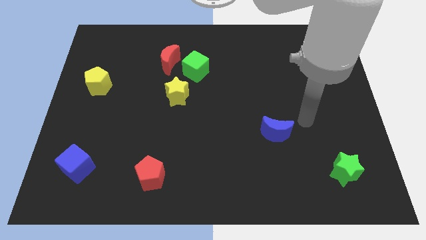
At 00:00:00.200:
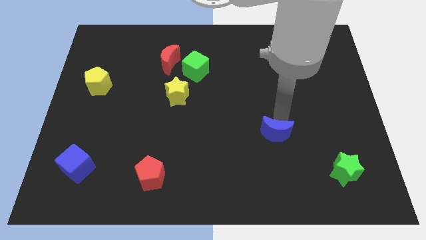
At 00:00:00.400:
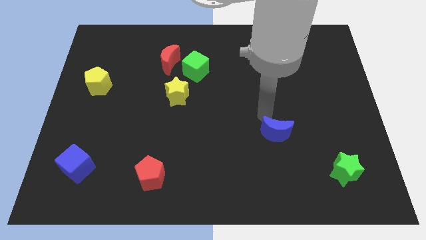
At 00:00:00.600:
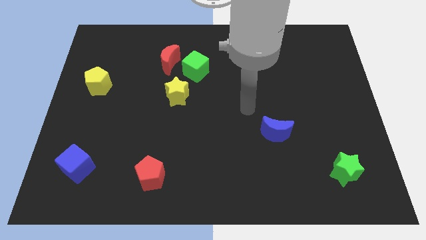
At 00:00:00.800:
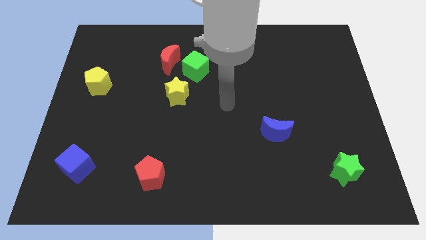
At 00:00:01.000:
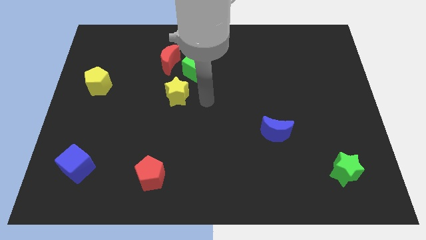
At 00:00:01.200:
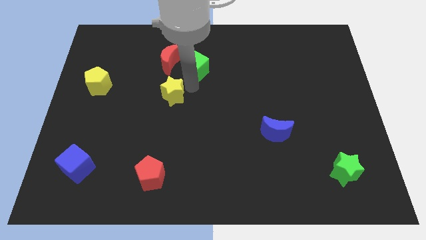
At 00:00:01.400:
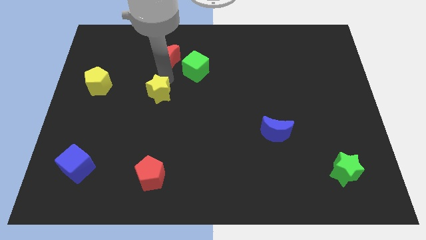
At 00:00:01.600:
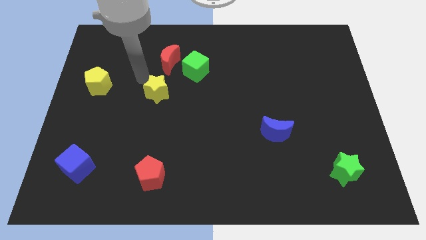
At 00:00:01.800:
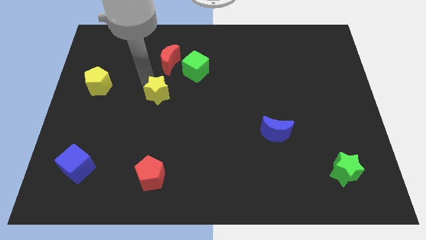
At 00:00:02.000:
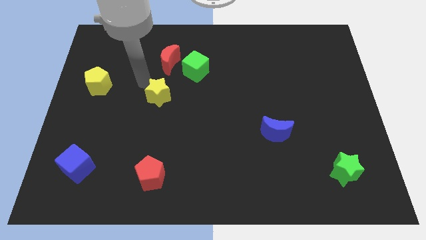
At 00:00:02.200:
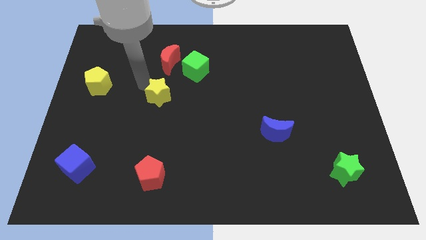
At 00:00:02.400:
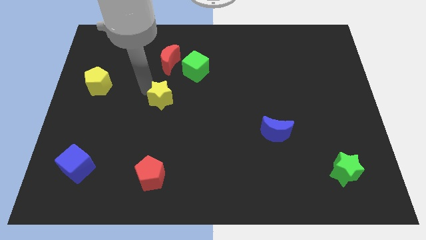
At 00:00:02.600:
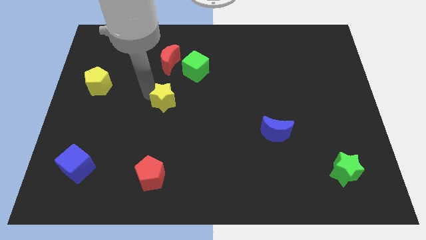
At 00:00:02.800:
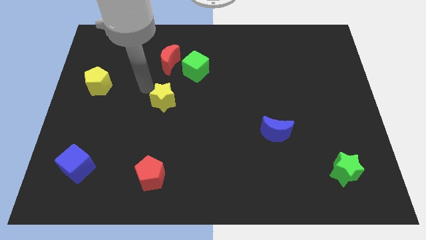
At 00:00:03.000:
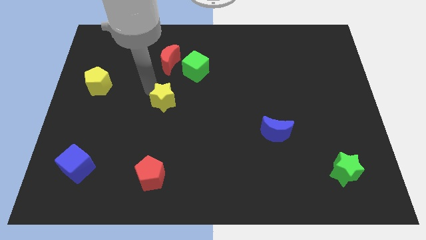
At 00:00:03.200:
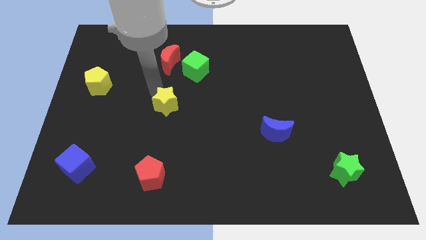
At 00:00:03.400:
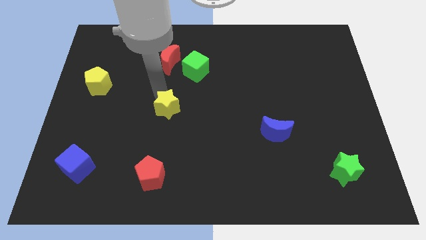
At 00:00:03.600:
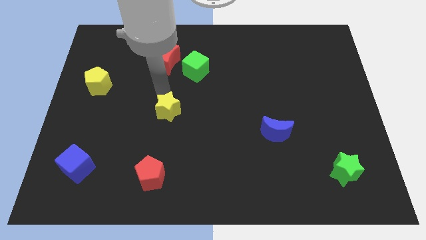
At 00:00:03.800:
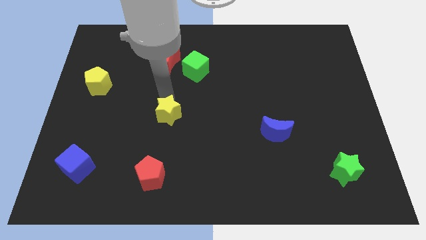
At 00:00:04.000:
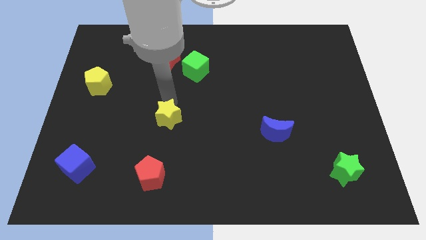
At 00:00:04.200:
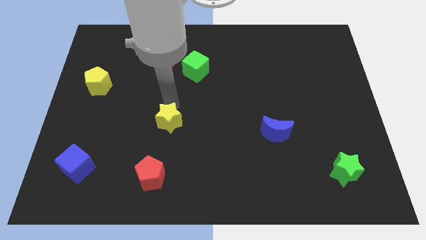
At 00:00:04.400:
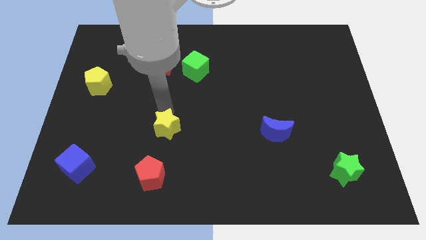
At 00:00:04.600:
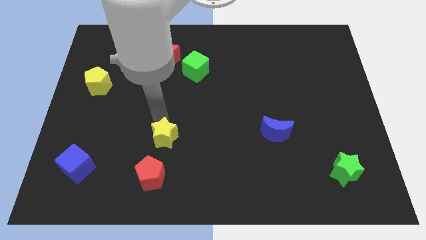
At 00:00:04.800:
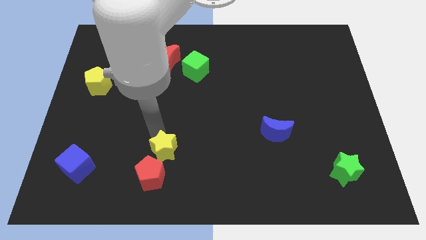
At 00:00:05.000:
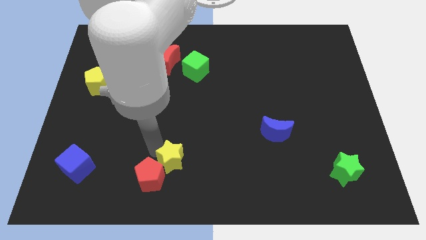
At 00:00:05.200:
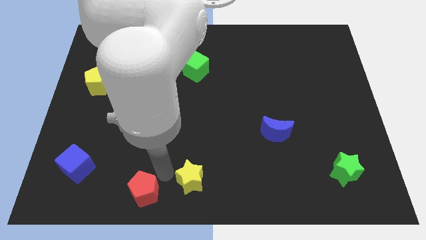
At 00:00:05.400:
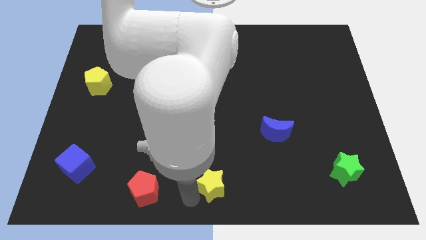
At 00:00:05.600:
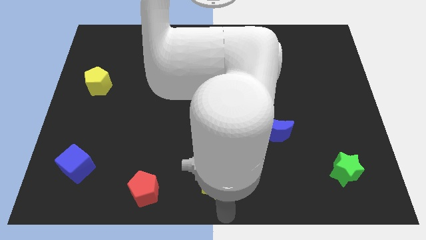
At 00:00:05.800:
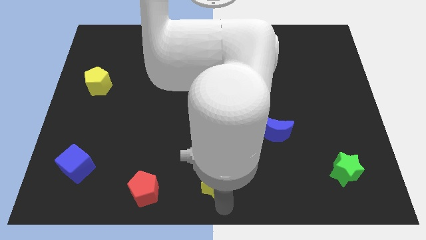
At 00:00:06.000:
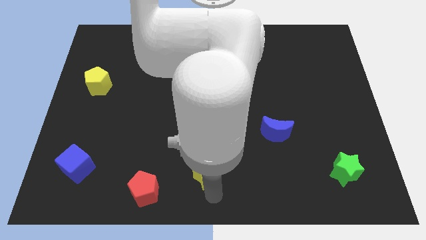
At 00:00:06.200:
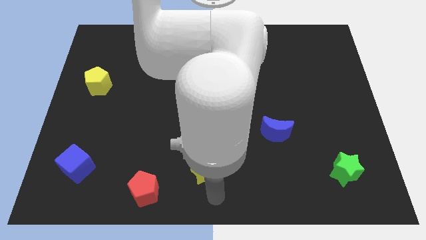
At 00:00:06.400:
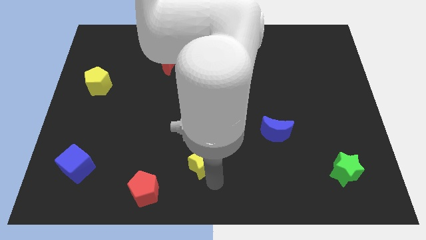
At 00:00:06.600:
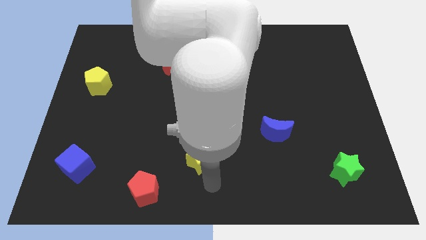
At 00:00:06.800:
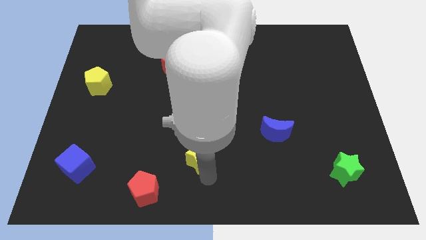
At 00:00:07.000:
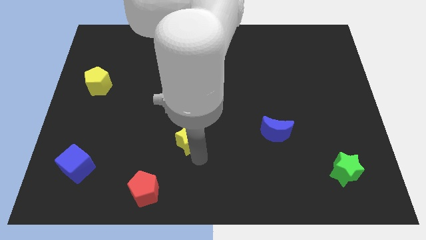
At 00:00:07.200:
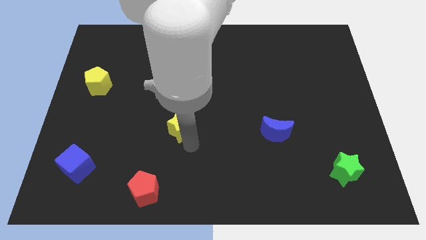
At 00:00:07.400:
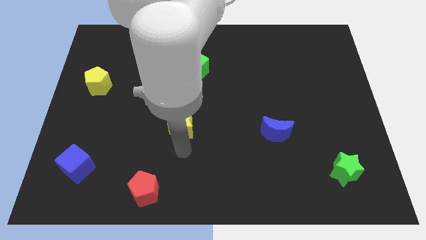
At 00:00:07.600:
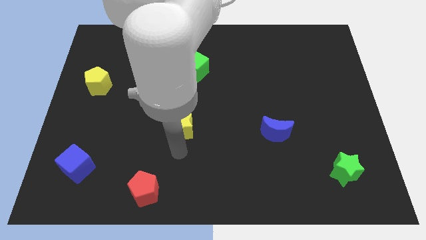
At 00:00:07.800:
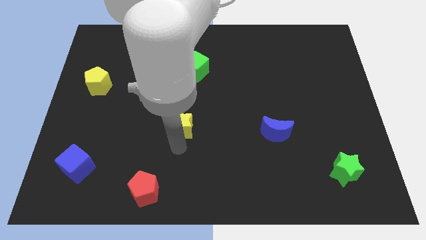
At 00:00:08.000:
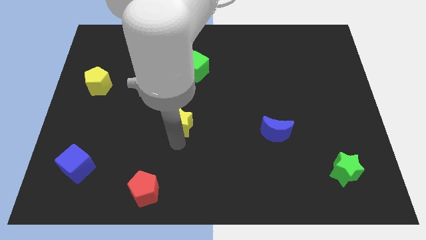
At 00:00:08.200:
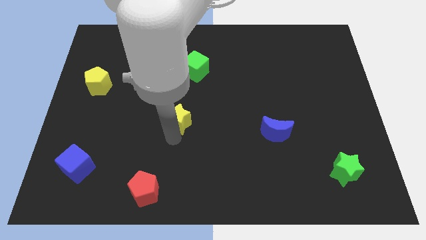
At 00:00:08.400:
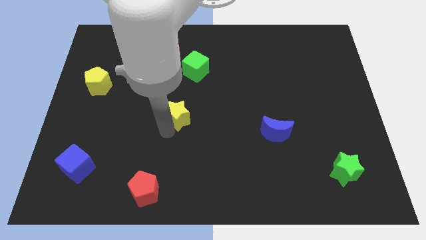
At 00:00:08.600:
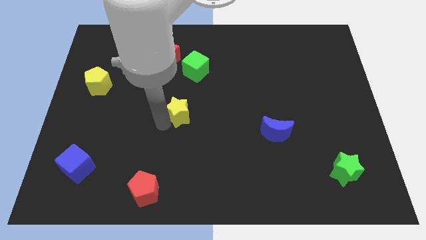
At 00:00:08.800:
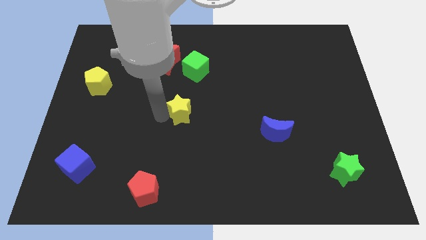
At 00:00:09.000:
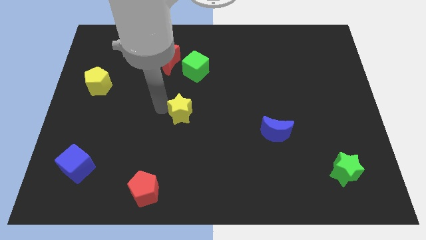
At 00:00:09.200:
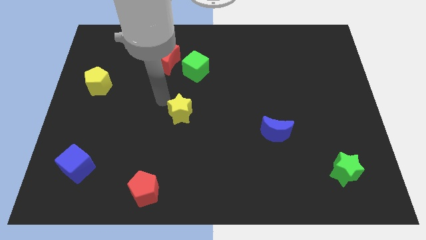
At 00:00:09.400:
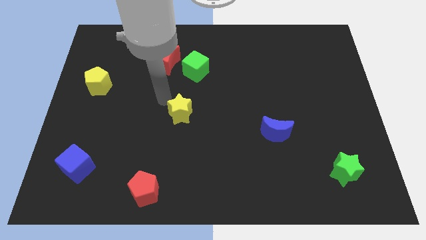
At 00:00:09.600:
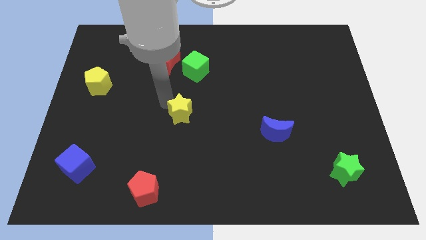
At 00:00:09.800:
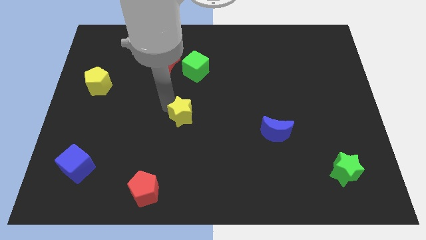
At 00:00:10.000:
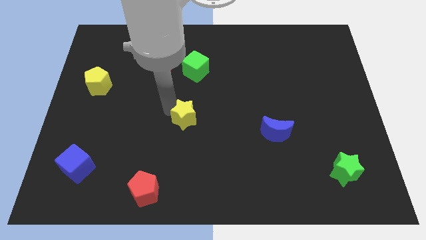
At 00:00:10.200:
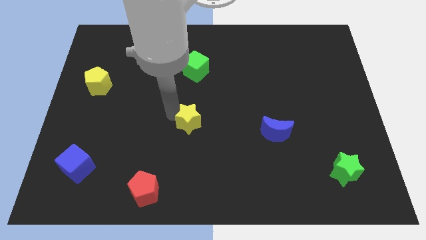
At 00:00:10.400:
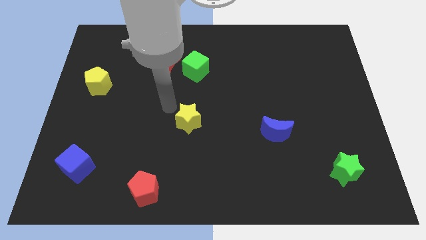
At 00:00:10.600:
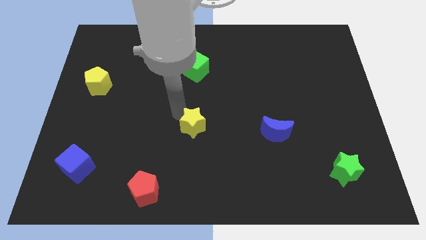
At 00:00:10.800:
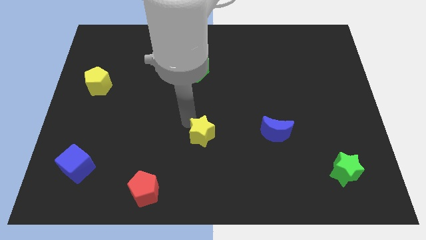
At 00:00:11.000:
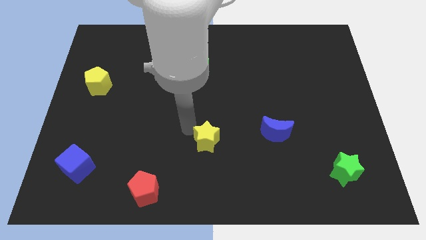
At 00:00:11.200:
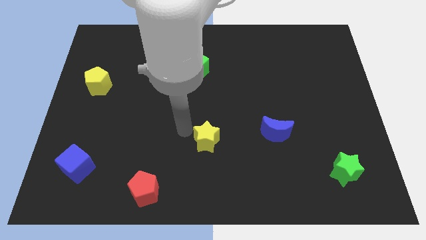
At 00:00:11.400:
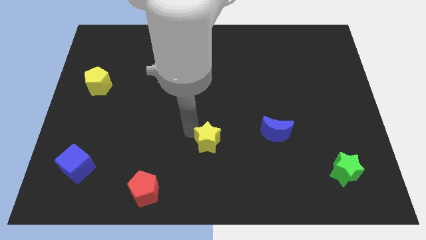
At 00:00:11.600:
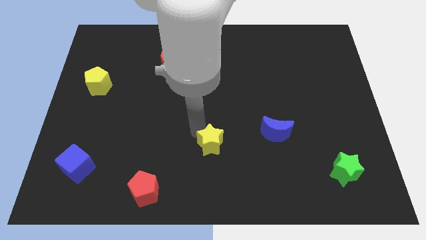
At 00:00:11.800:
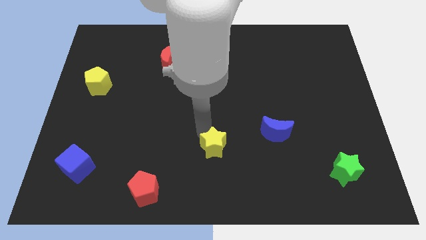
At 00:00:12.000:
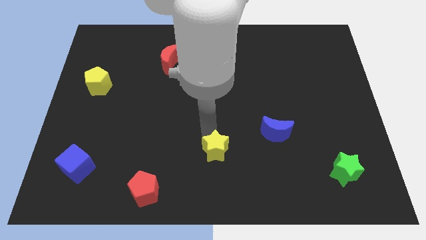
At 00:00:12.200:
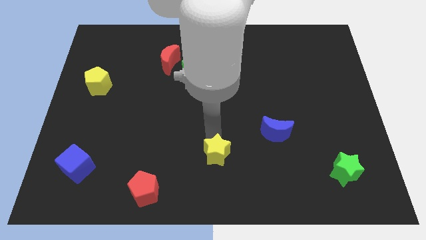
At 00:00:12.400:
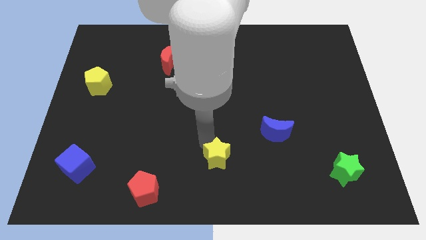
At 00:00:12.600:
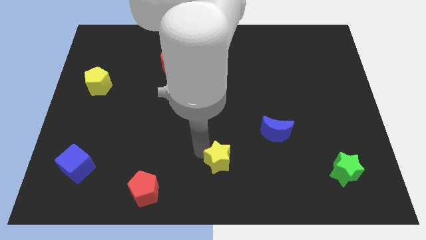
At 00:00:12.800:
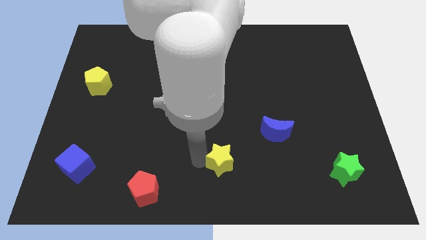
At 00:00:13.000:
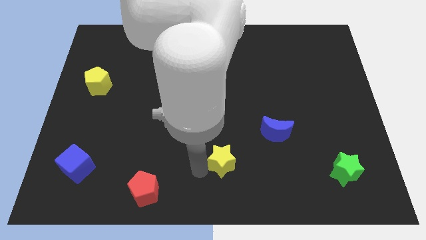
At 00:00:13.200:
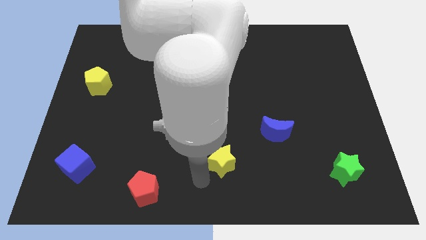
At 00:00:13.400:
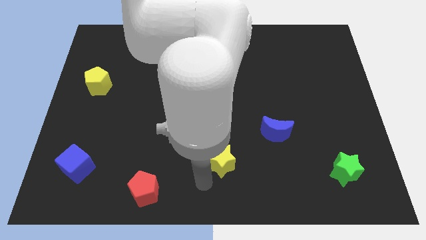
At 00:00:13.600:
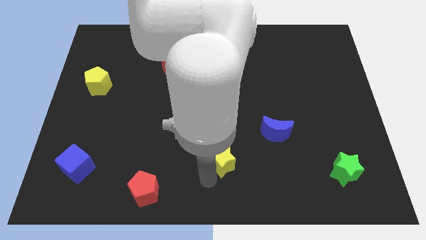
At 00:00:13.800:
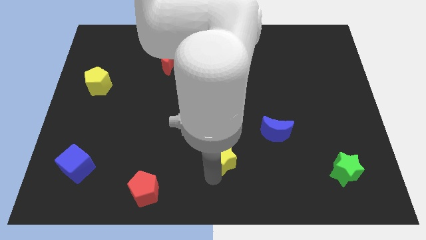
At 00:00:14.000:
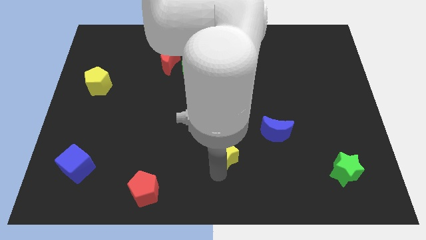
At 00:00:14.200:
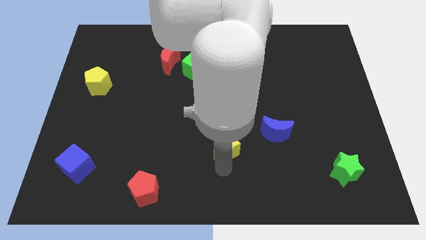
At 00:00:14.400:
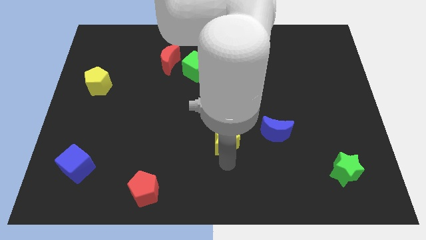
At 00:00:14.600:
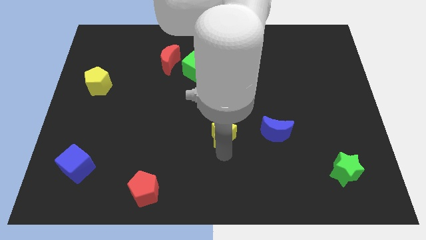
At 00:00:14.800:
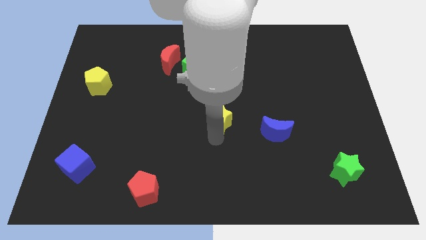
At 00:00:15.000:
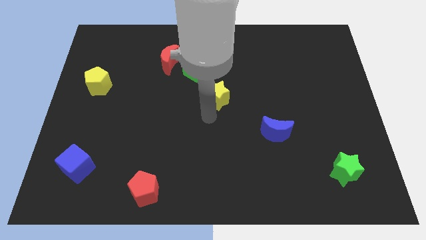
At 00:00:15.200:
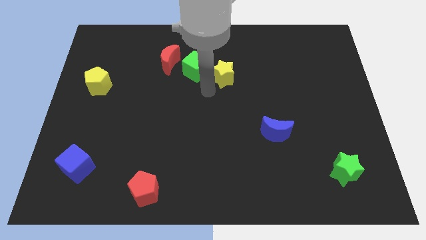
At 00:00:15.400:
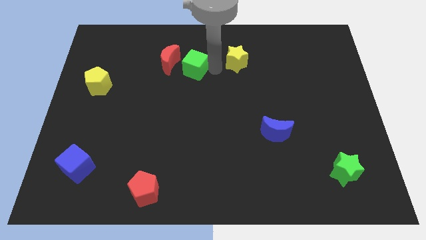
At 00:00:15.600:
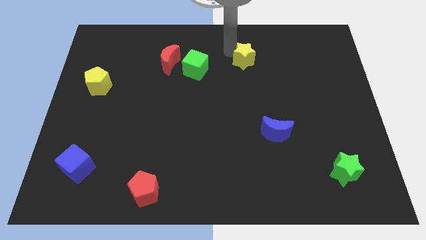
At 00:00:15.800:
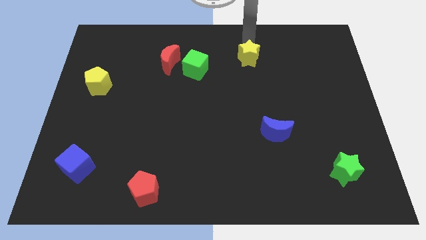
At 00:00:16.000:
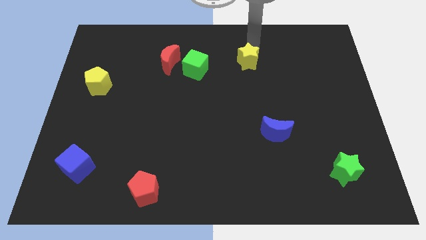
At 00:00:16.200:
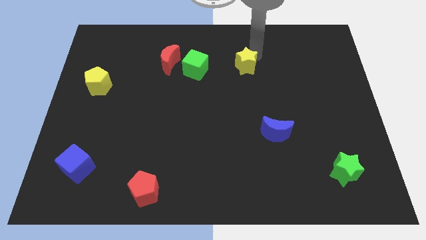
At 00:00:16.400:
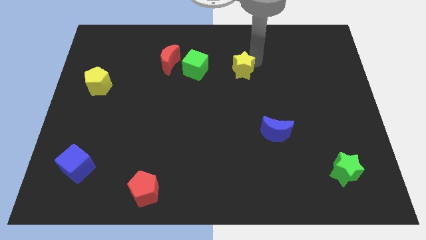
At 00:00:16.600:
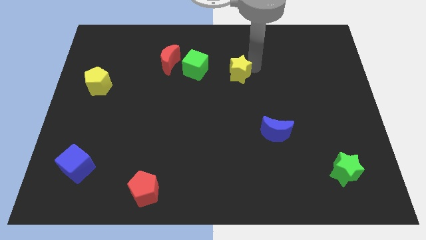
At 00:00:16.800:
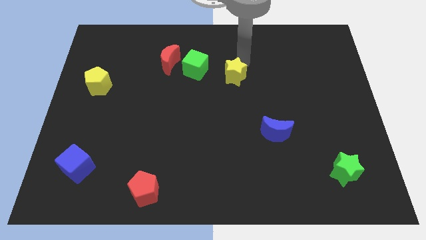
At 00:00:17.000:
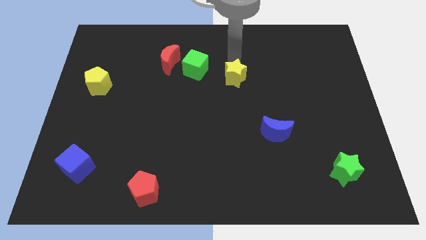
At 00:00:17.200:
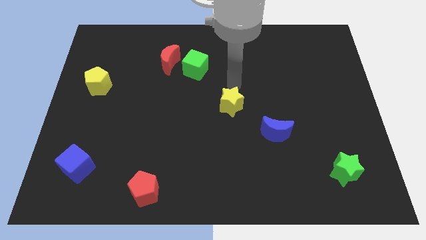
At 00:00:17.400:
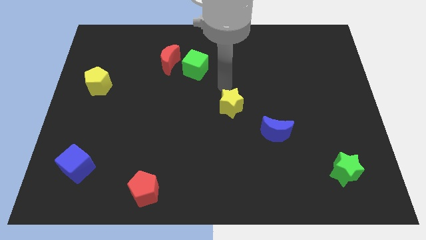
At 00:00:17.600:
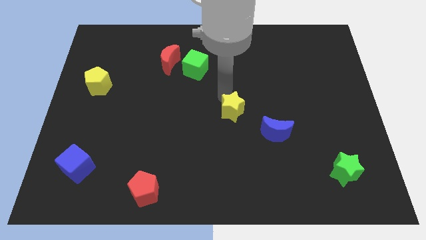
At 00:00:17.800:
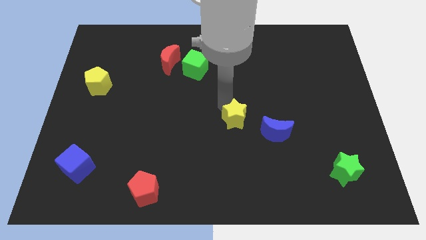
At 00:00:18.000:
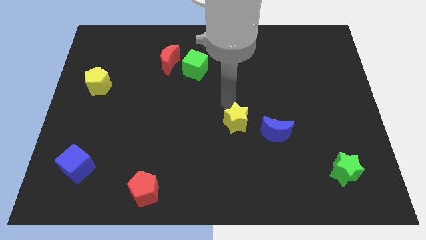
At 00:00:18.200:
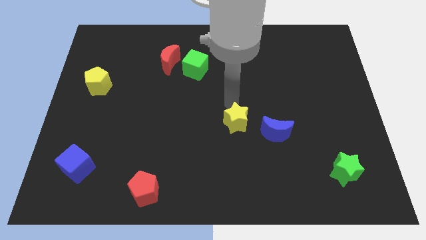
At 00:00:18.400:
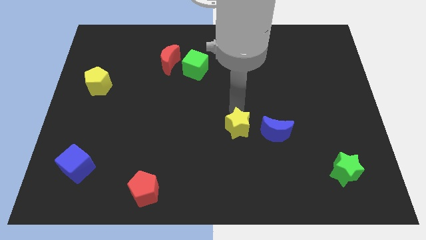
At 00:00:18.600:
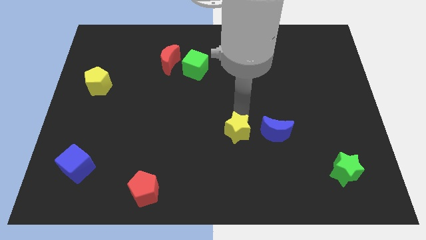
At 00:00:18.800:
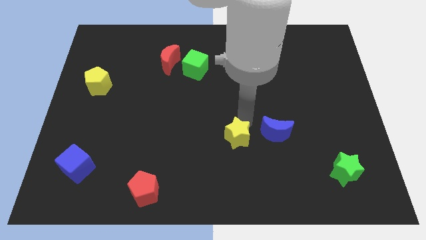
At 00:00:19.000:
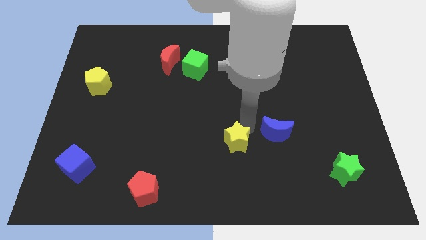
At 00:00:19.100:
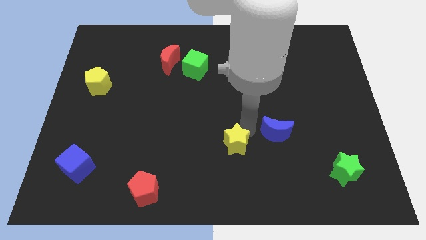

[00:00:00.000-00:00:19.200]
move the yellow star downwards and right
